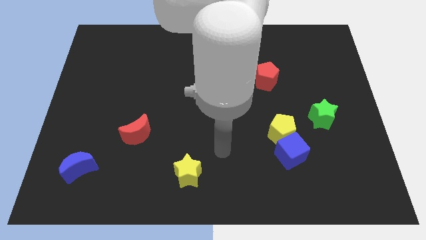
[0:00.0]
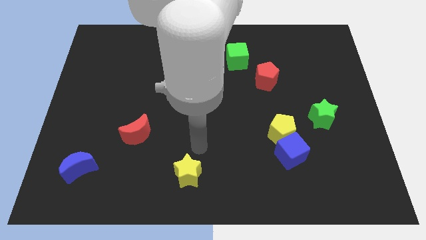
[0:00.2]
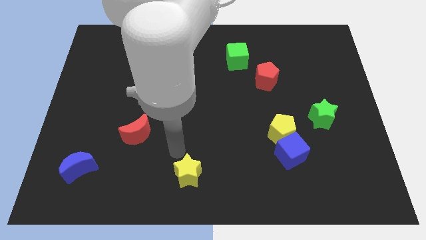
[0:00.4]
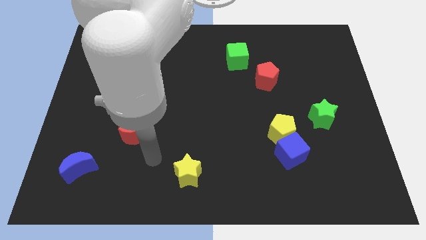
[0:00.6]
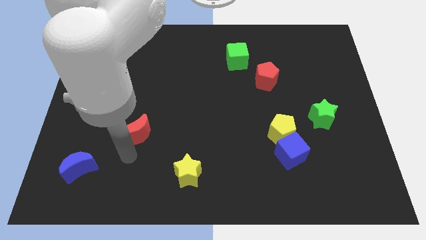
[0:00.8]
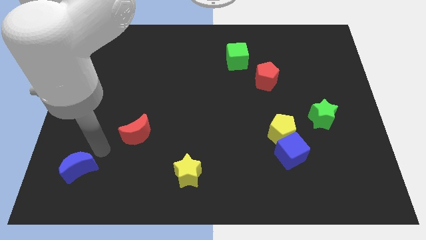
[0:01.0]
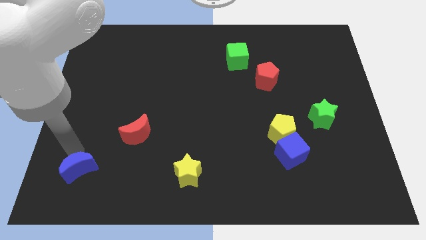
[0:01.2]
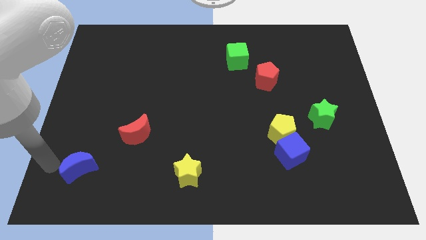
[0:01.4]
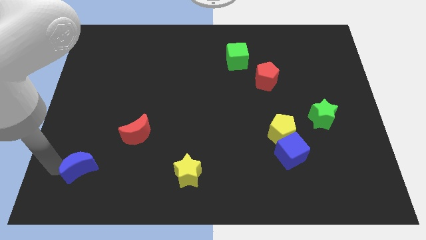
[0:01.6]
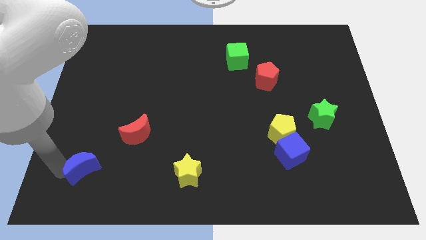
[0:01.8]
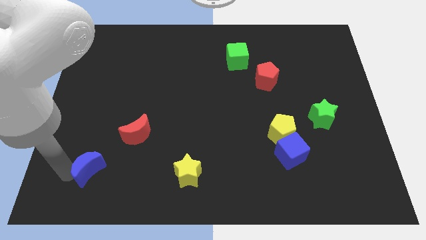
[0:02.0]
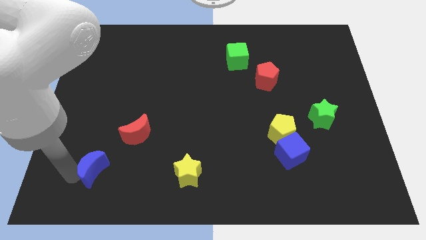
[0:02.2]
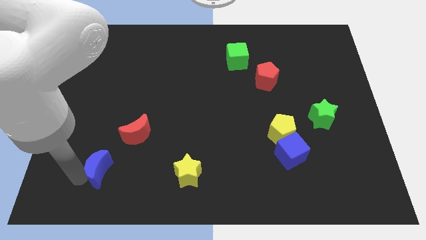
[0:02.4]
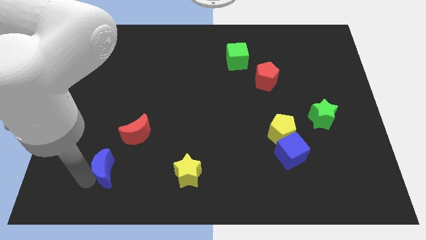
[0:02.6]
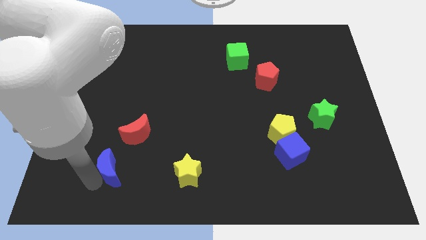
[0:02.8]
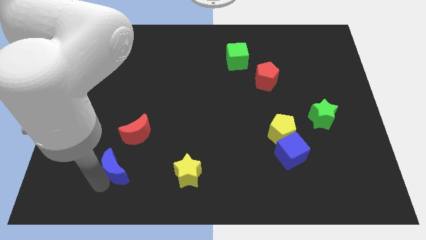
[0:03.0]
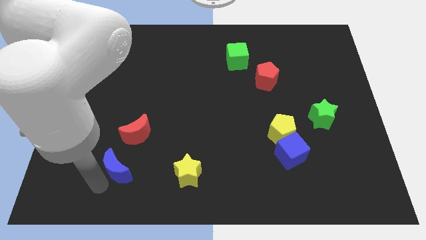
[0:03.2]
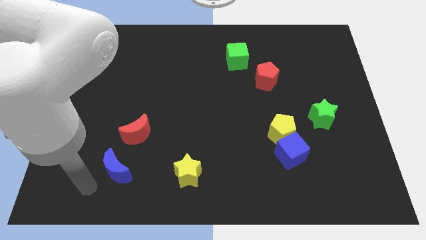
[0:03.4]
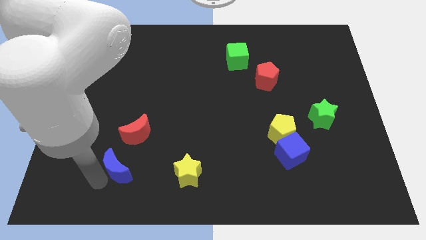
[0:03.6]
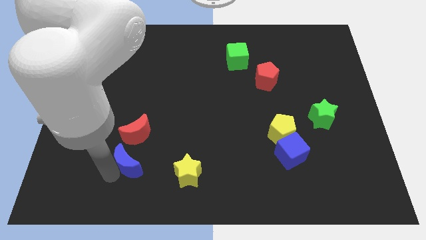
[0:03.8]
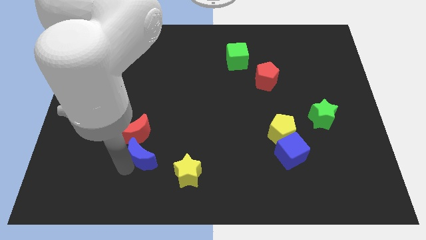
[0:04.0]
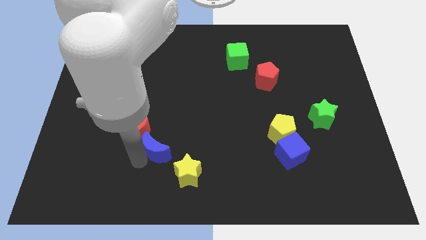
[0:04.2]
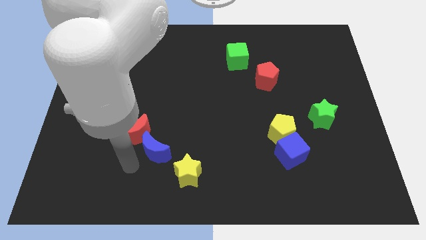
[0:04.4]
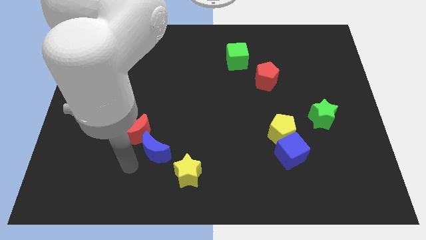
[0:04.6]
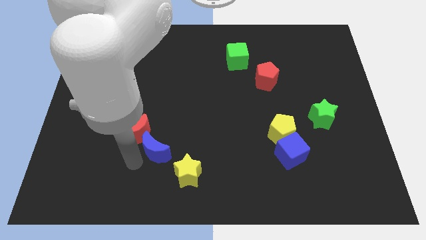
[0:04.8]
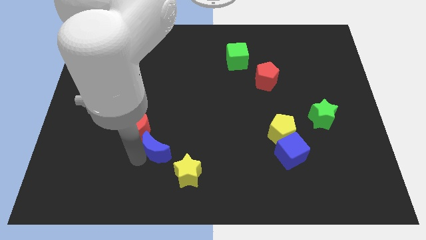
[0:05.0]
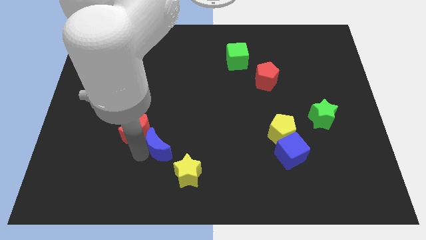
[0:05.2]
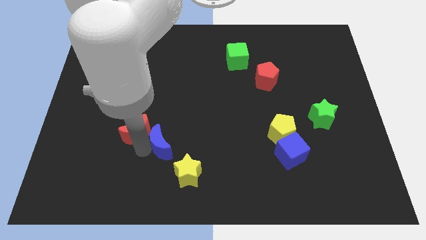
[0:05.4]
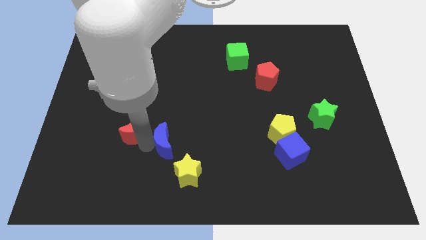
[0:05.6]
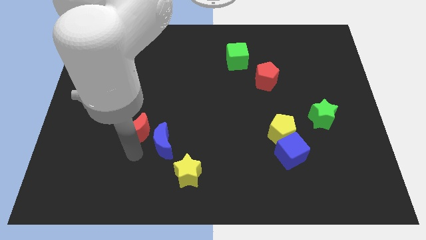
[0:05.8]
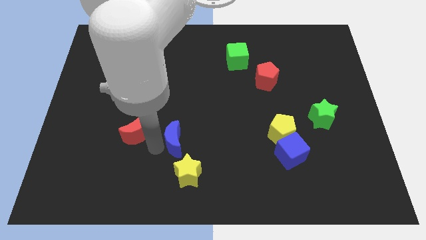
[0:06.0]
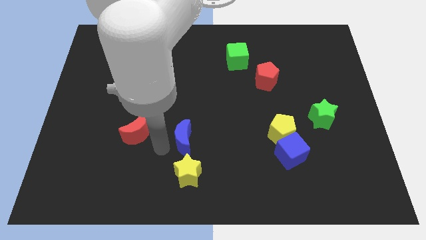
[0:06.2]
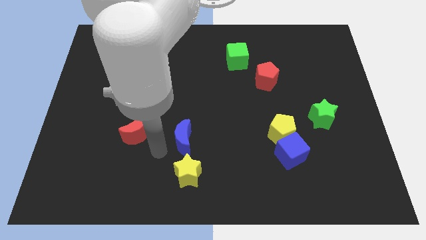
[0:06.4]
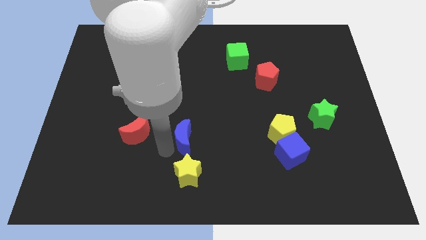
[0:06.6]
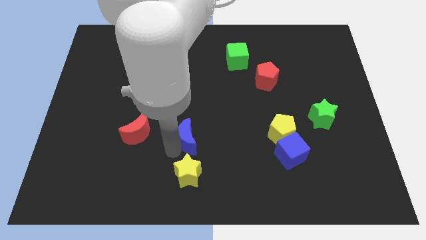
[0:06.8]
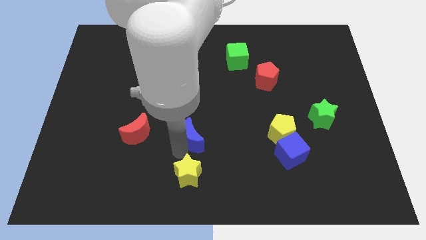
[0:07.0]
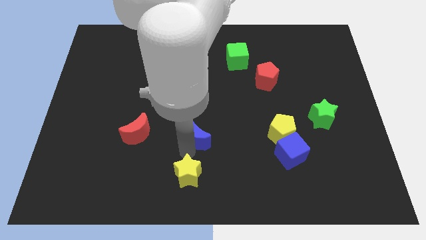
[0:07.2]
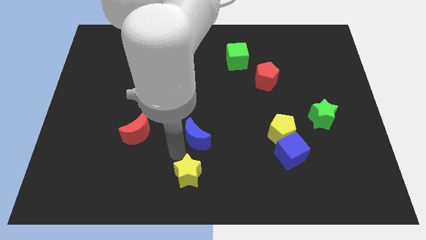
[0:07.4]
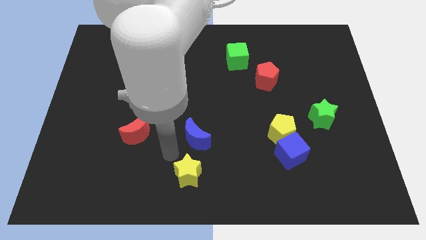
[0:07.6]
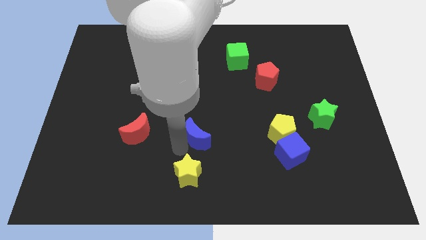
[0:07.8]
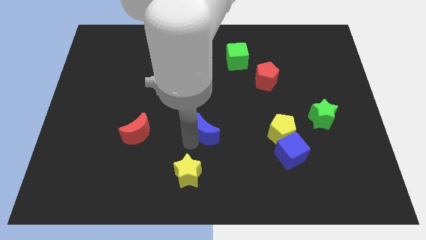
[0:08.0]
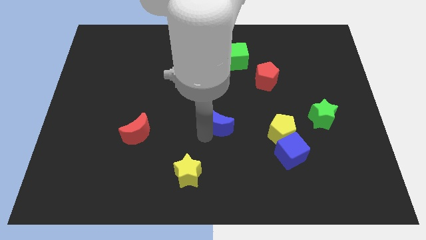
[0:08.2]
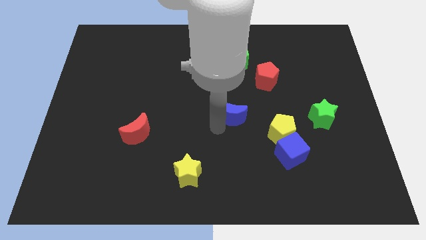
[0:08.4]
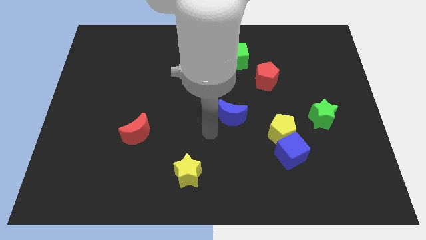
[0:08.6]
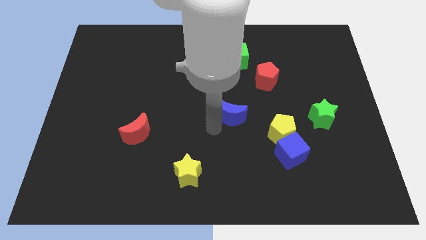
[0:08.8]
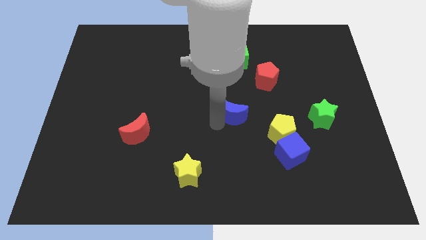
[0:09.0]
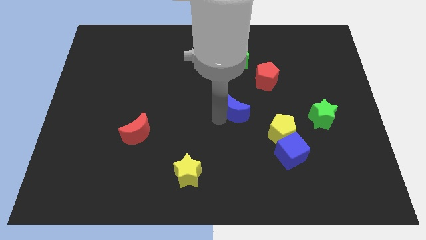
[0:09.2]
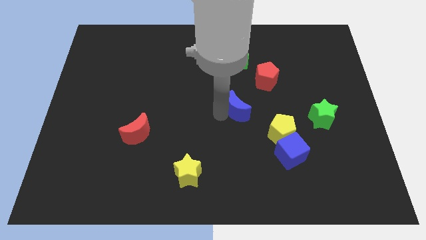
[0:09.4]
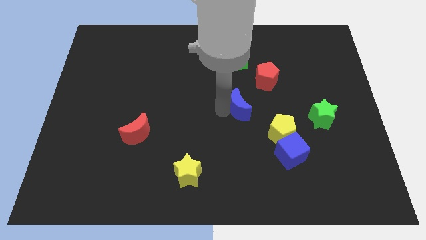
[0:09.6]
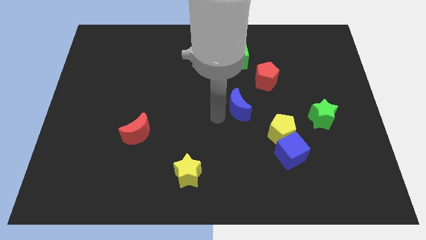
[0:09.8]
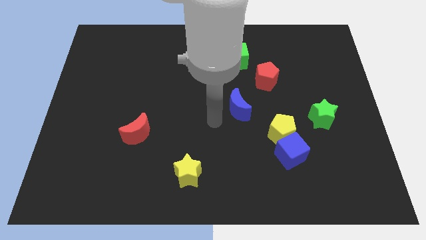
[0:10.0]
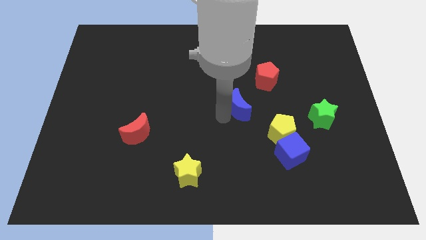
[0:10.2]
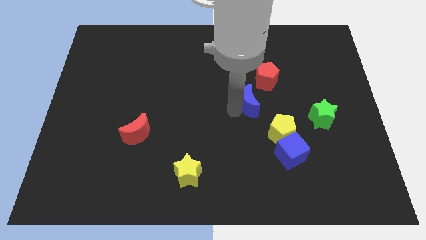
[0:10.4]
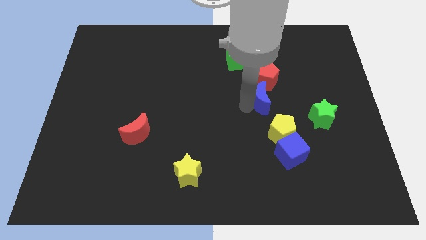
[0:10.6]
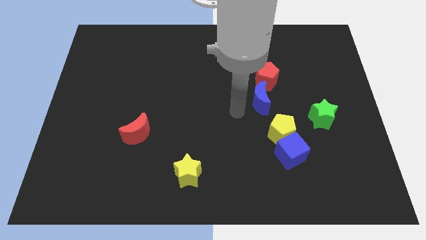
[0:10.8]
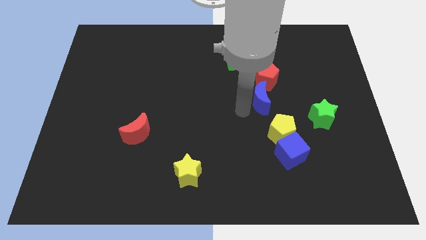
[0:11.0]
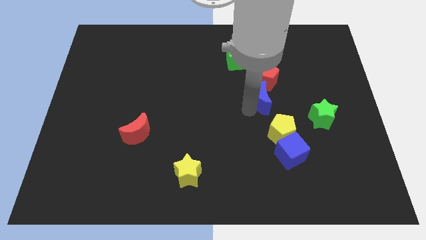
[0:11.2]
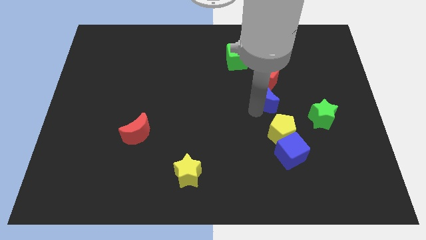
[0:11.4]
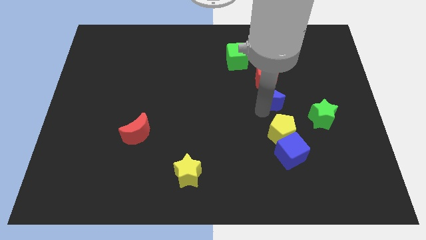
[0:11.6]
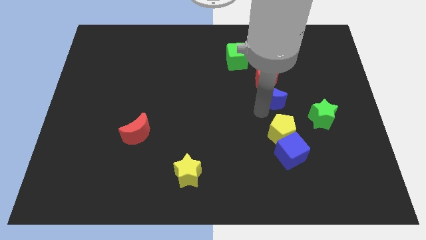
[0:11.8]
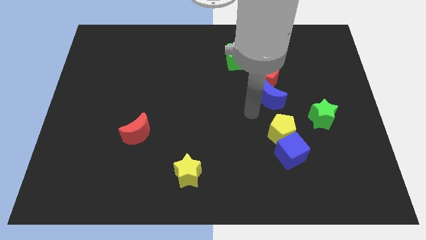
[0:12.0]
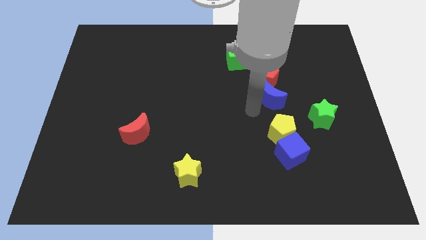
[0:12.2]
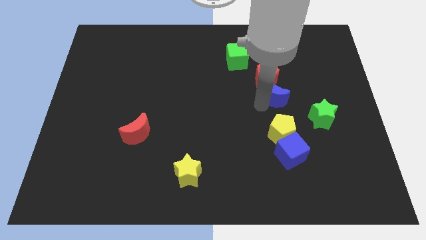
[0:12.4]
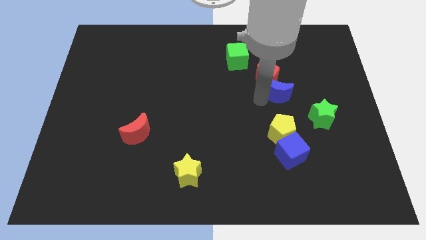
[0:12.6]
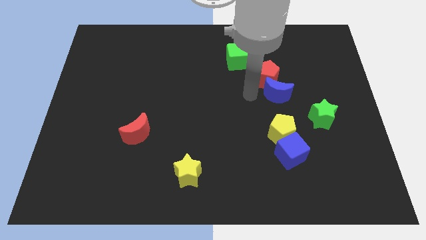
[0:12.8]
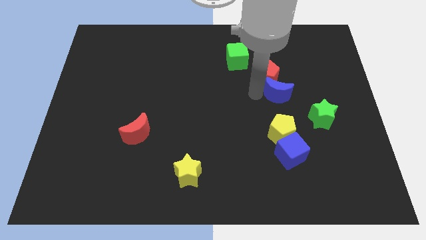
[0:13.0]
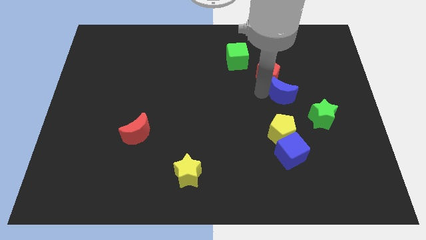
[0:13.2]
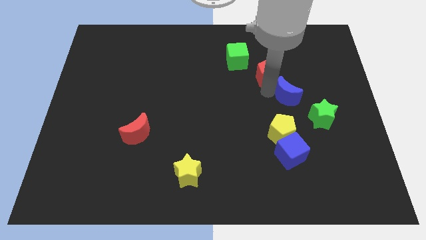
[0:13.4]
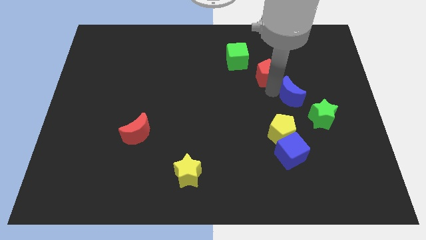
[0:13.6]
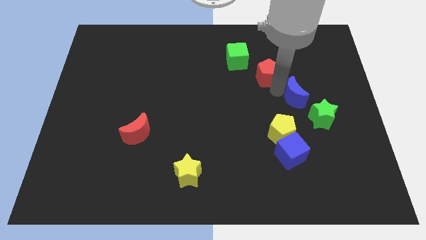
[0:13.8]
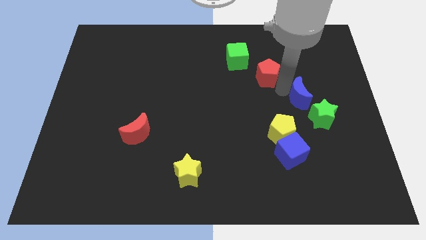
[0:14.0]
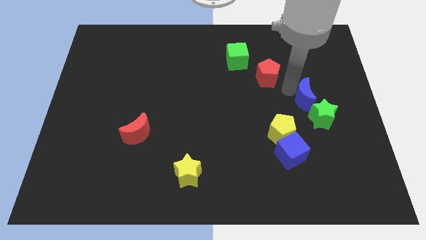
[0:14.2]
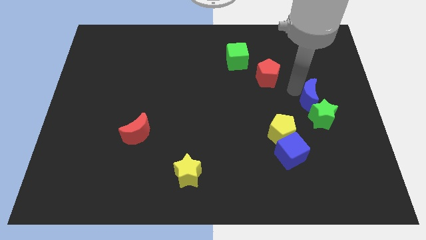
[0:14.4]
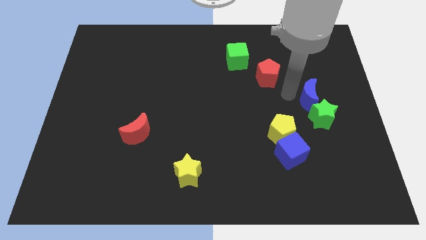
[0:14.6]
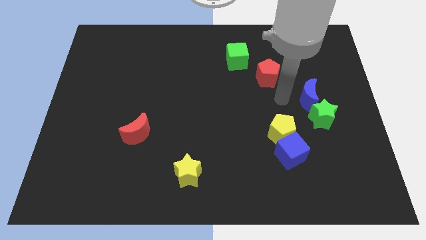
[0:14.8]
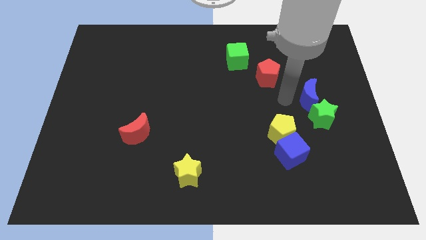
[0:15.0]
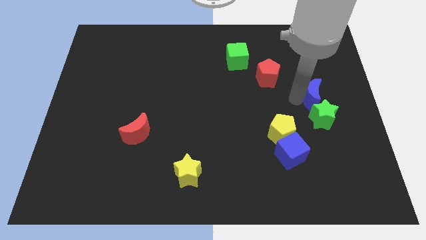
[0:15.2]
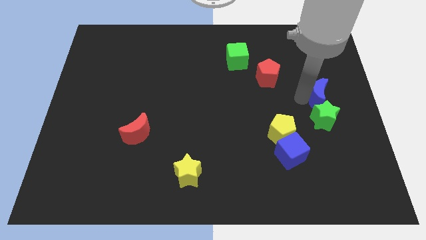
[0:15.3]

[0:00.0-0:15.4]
move the blue moon to the center right
